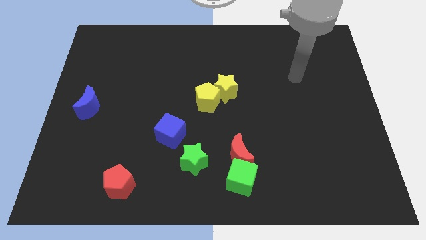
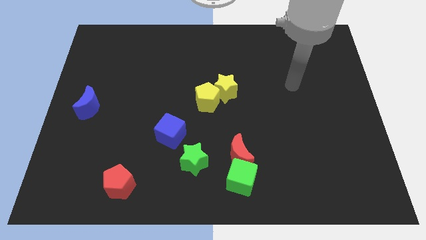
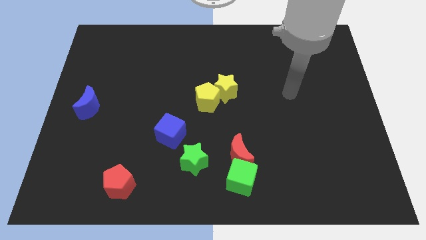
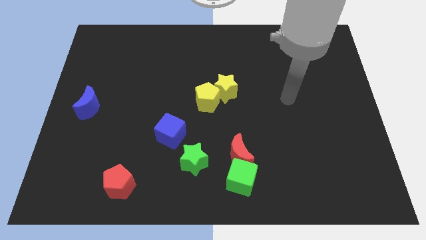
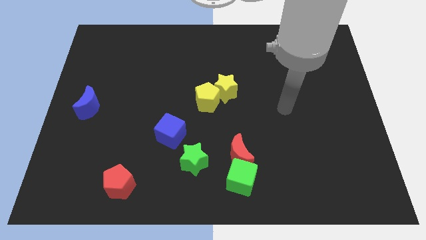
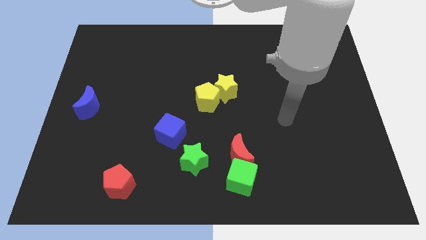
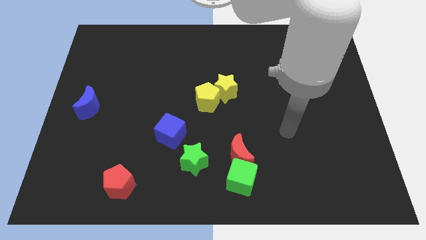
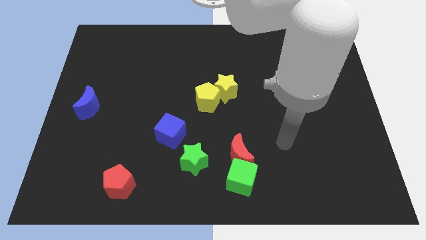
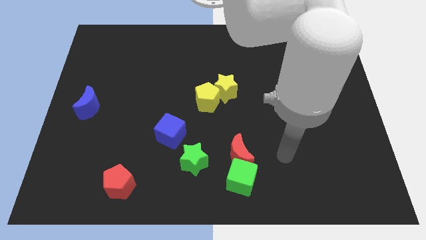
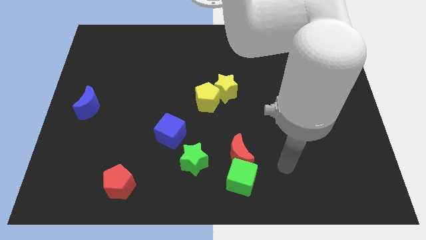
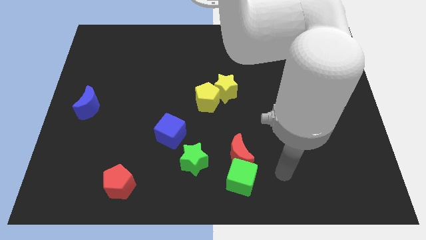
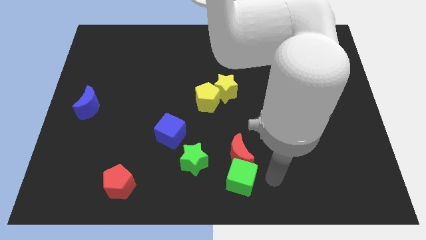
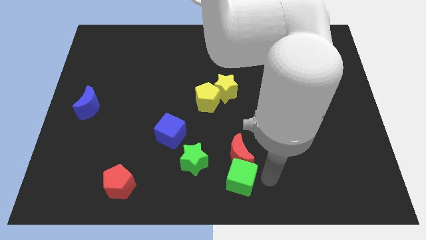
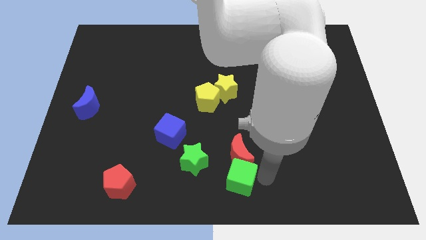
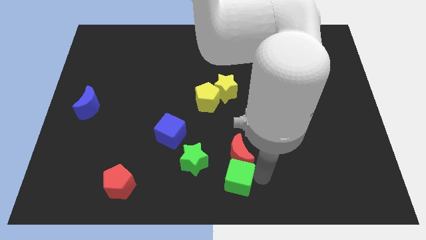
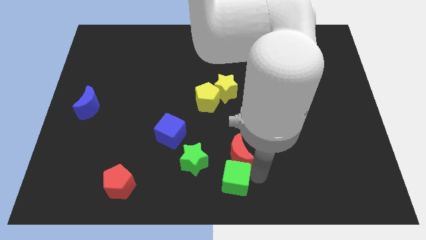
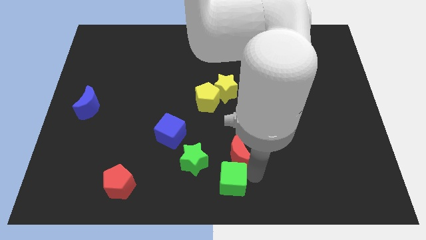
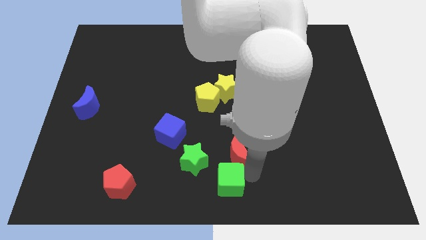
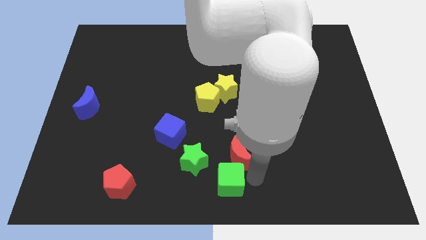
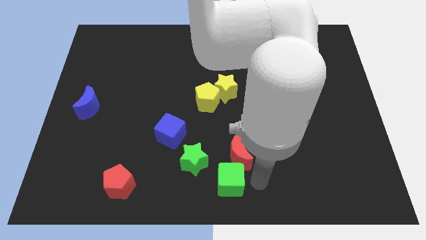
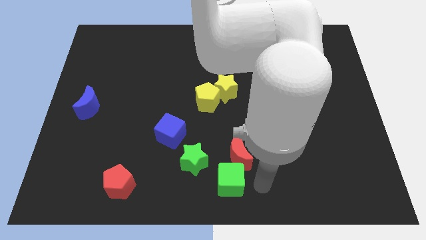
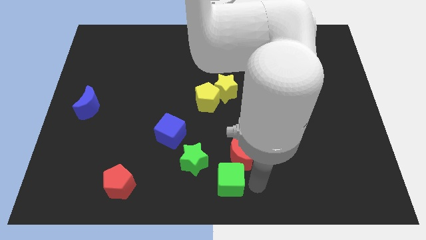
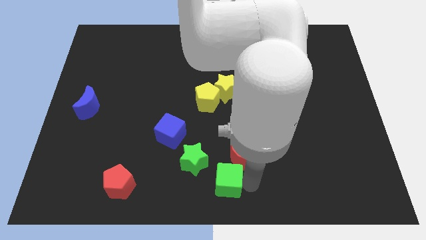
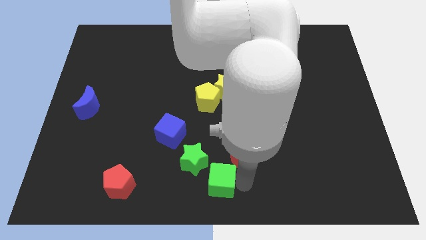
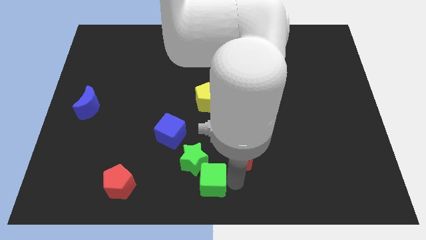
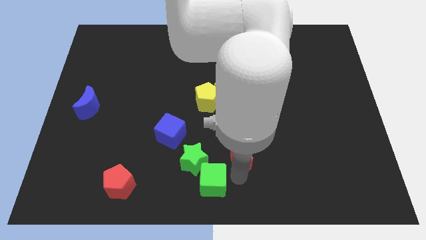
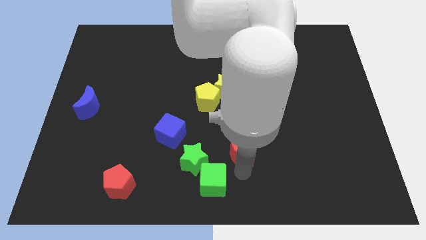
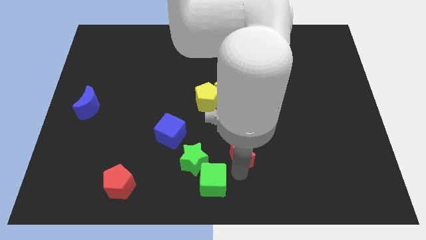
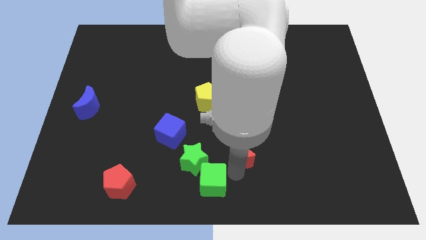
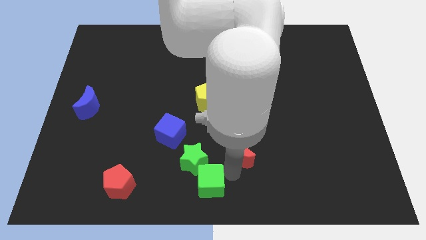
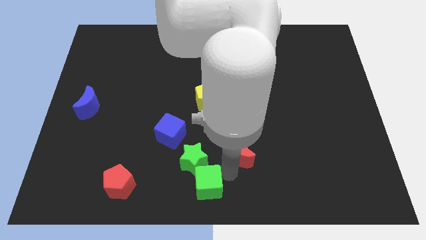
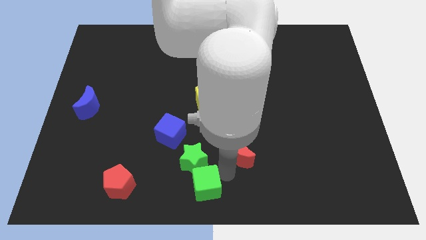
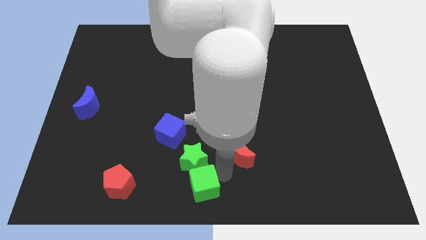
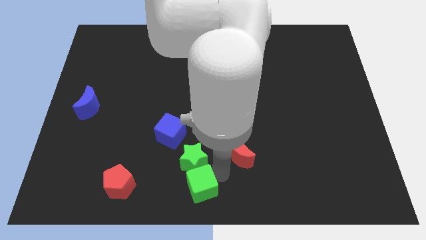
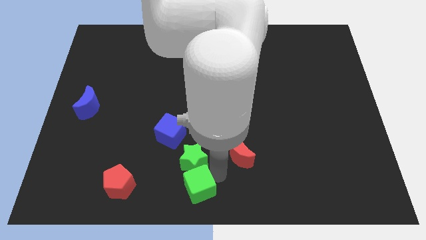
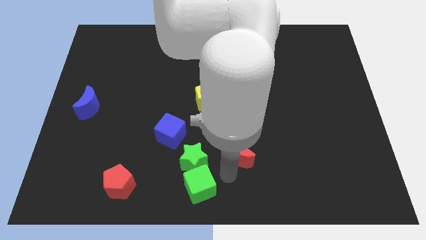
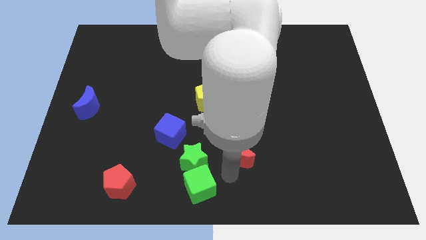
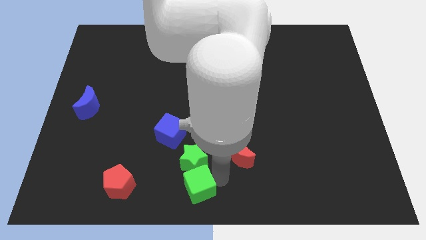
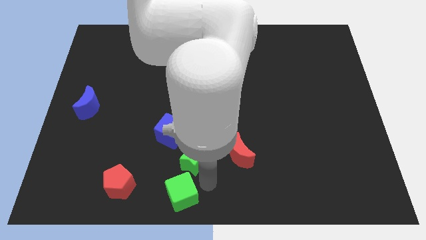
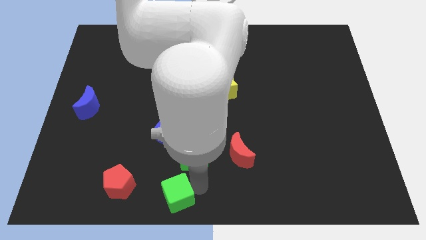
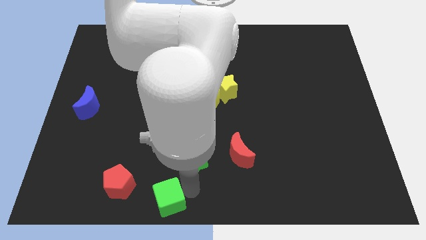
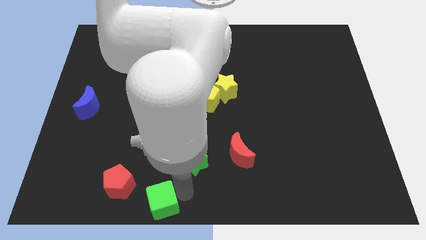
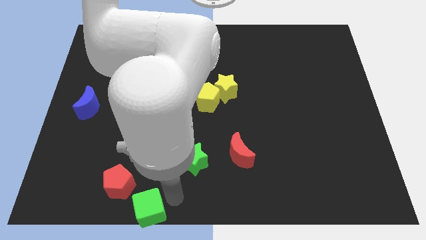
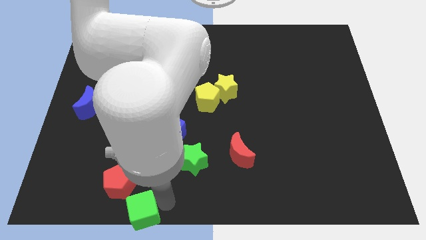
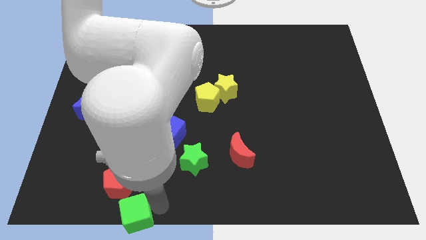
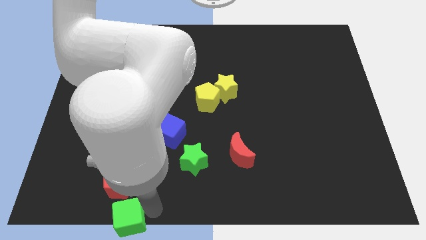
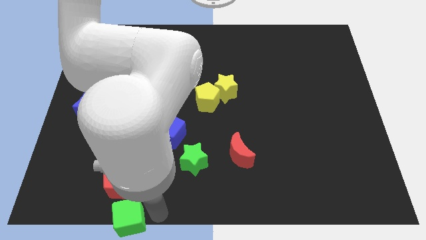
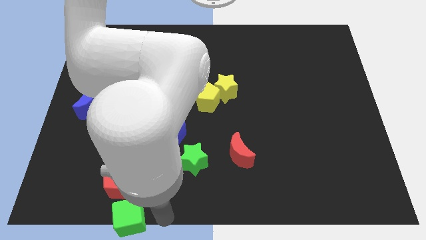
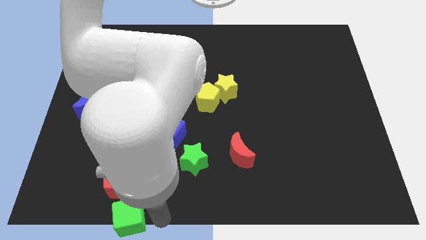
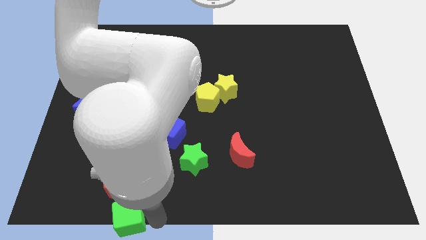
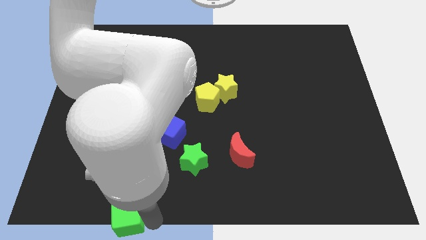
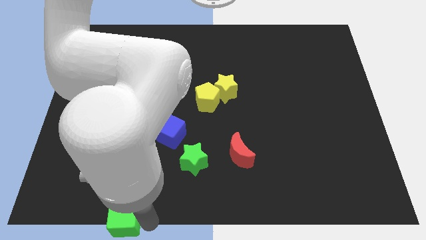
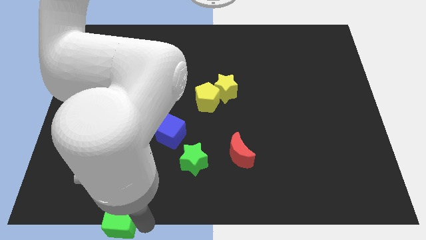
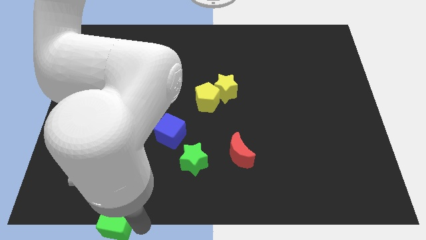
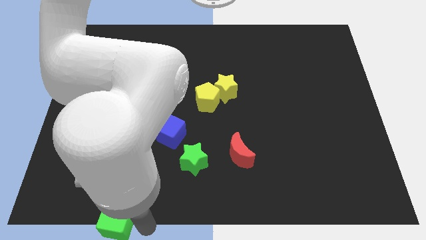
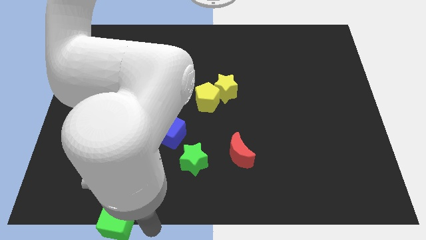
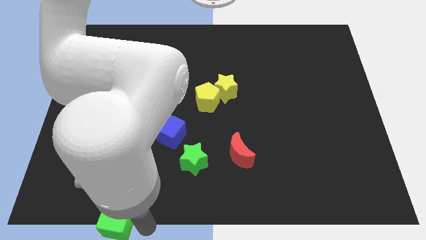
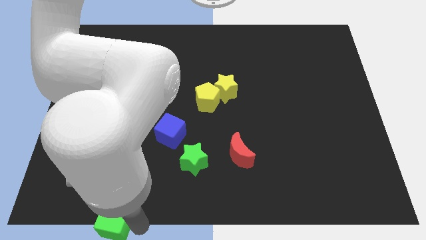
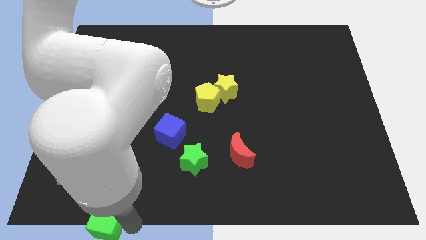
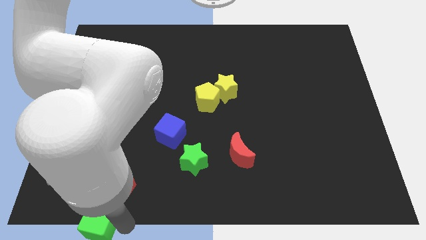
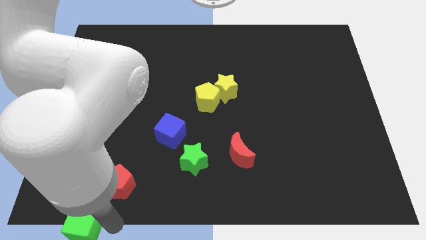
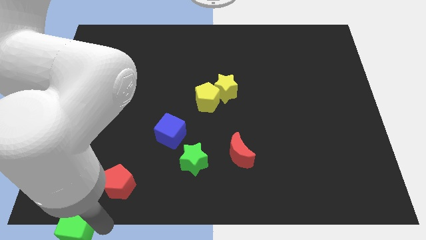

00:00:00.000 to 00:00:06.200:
push the green cube to the bottom left of the board

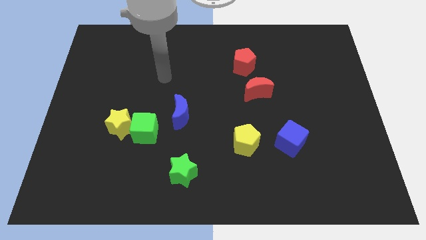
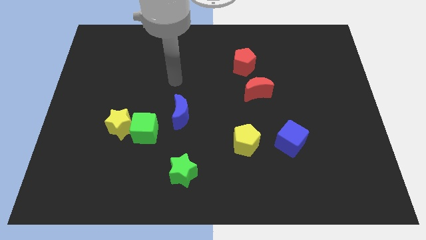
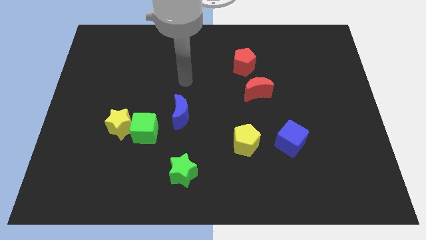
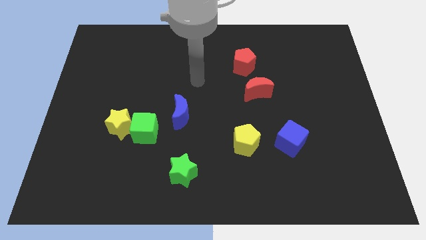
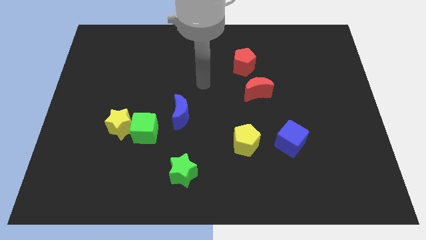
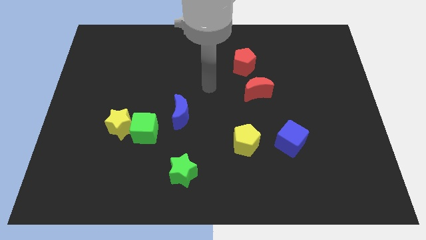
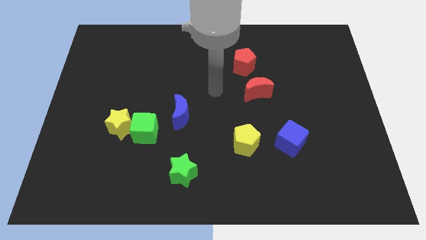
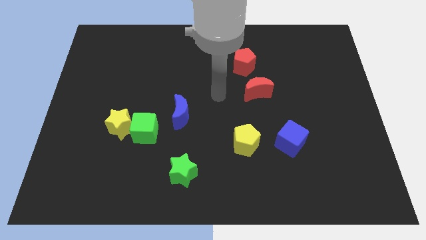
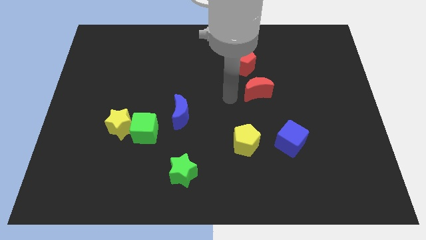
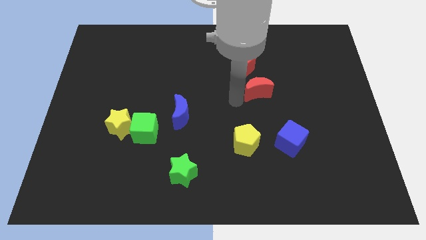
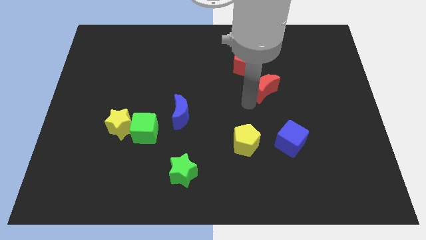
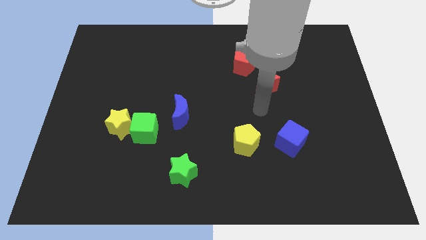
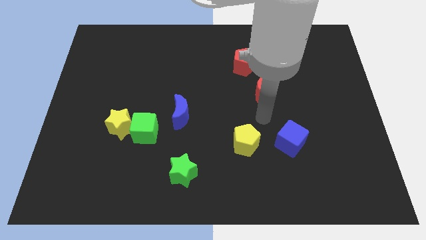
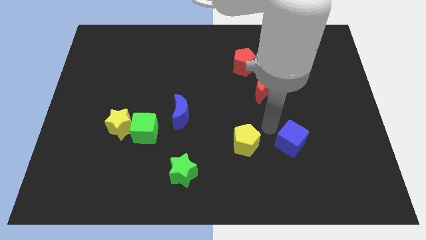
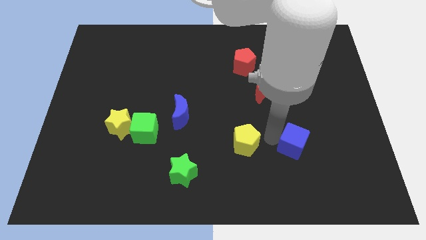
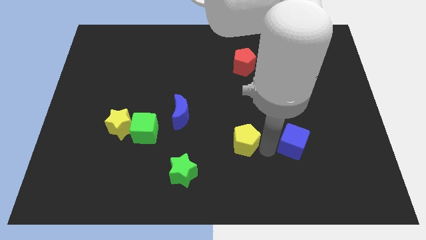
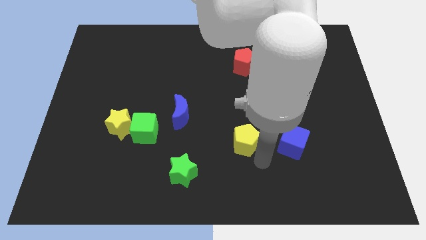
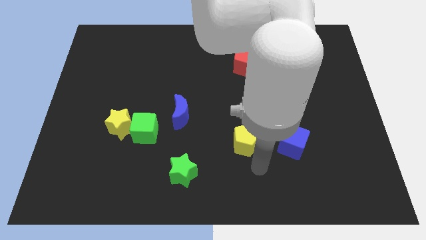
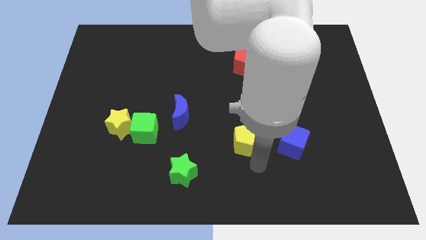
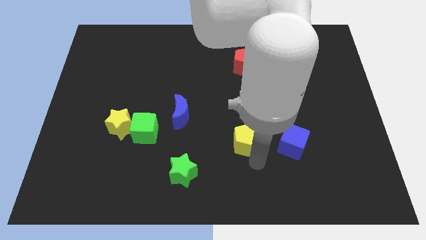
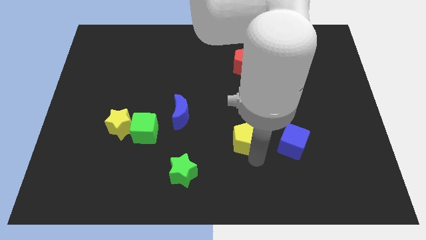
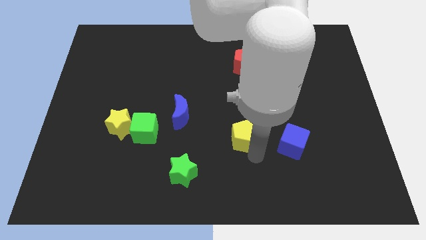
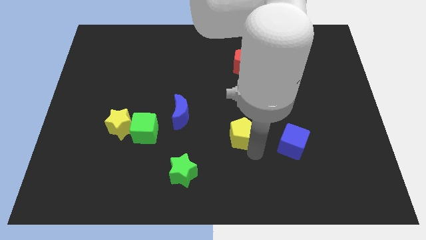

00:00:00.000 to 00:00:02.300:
slide the yellow pentagon to the center

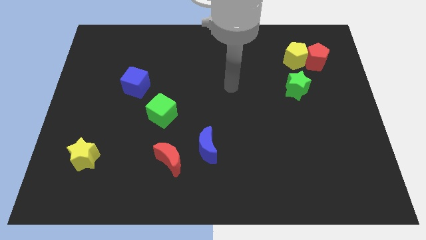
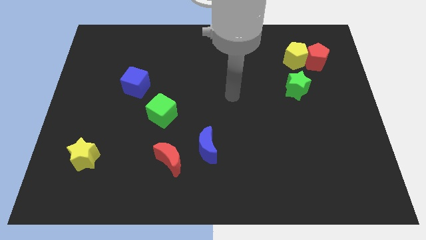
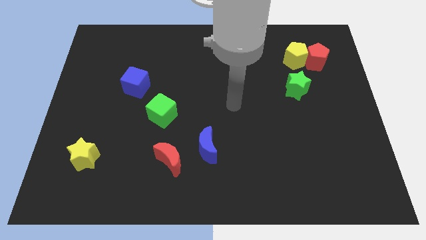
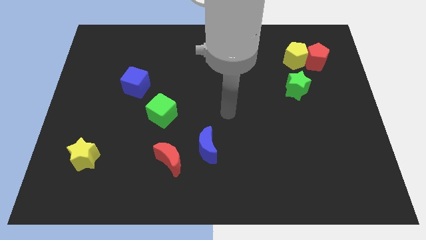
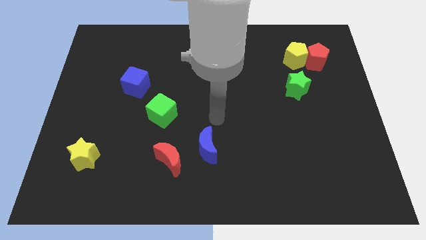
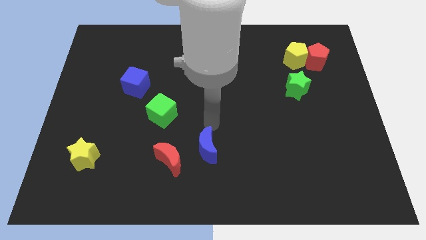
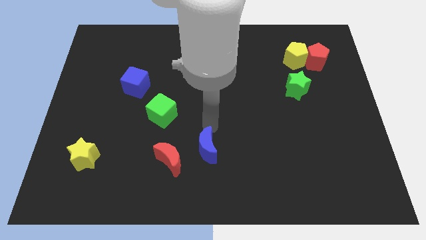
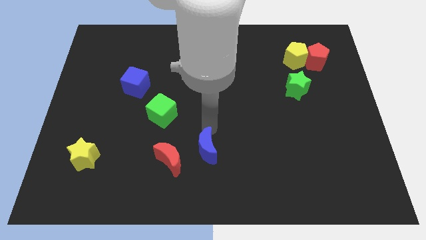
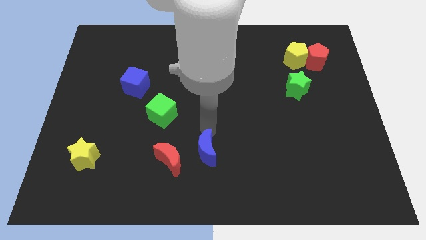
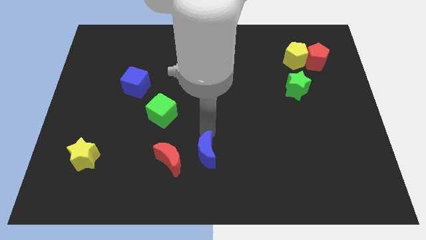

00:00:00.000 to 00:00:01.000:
slide the blue moon to the bottom
